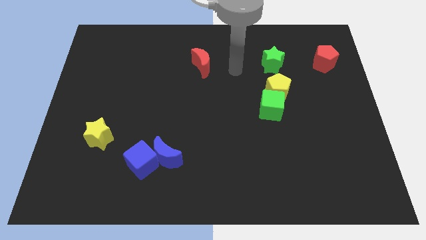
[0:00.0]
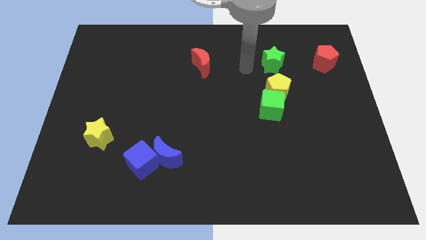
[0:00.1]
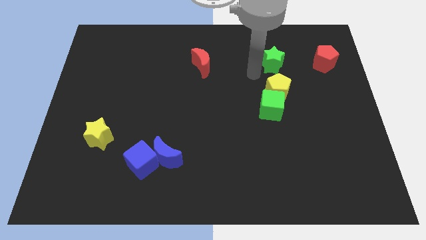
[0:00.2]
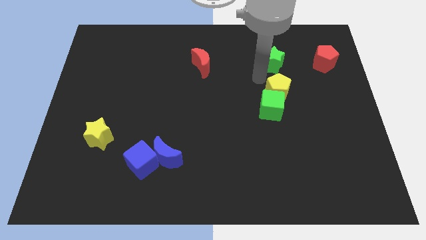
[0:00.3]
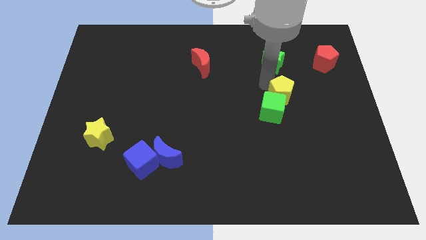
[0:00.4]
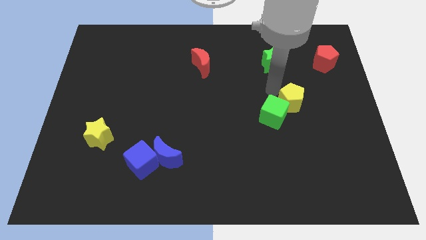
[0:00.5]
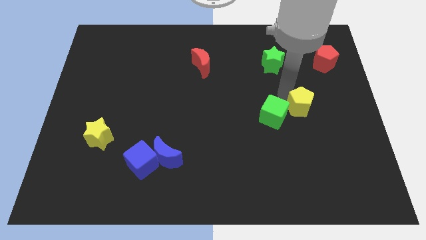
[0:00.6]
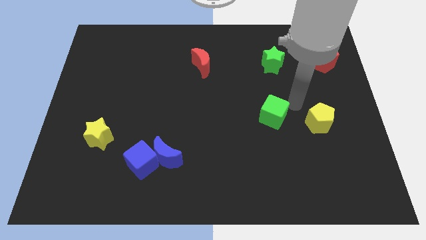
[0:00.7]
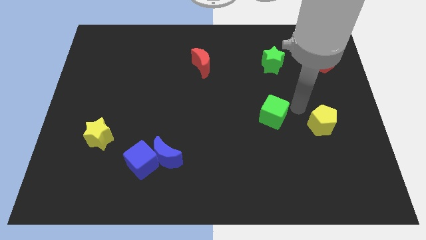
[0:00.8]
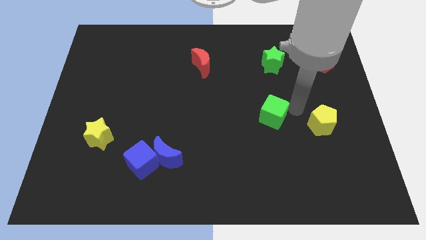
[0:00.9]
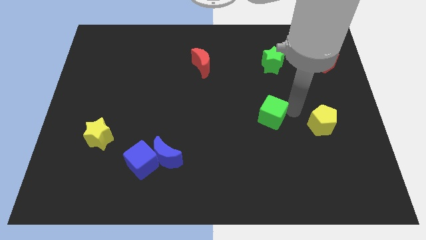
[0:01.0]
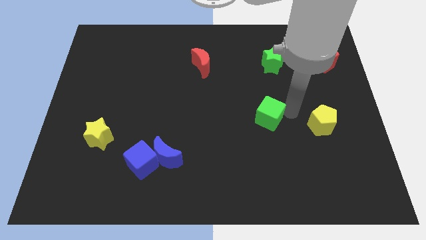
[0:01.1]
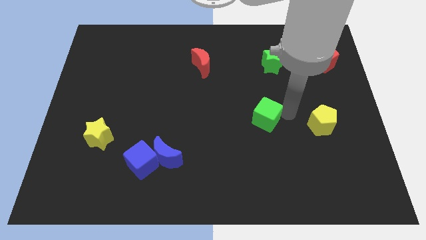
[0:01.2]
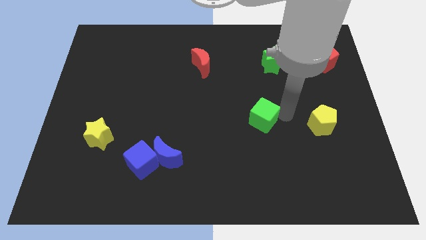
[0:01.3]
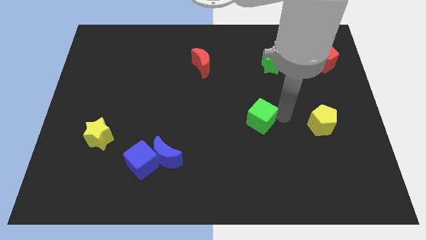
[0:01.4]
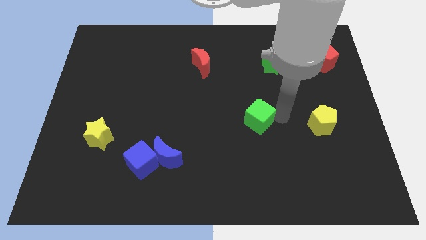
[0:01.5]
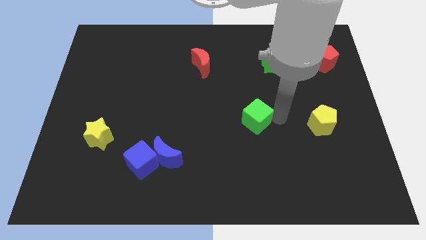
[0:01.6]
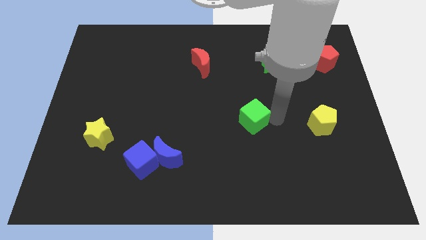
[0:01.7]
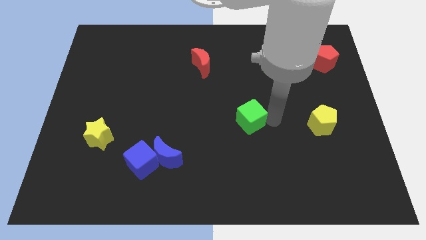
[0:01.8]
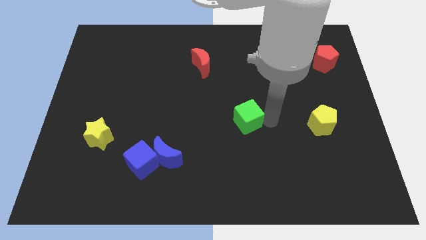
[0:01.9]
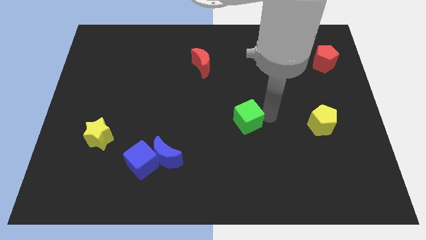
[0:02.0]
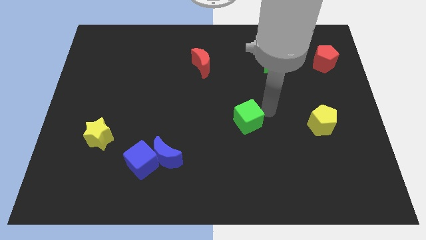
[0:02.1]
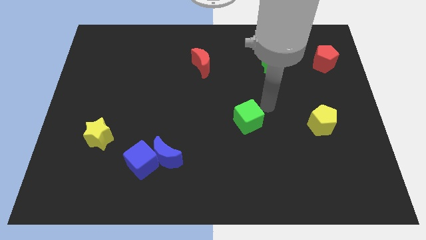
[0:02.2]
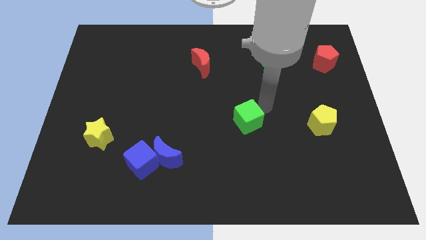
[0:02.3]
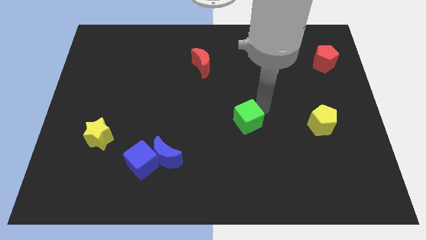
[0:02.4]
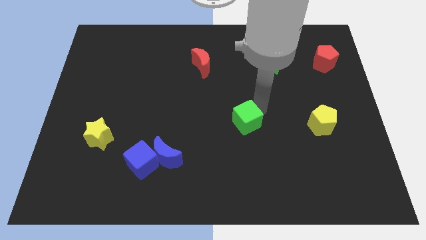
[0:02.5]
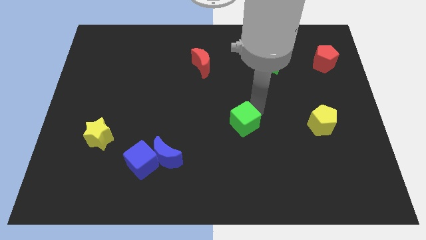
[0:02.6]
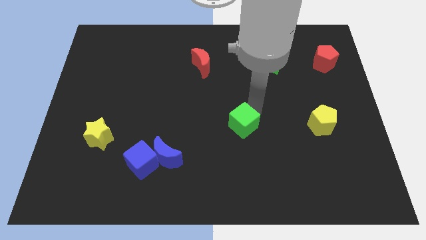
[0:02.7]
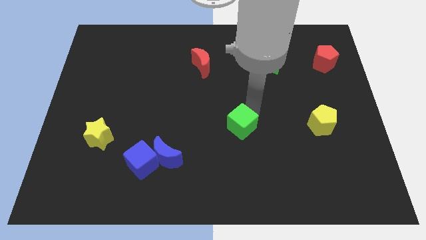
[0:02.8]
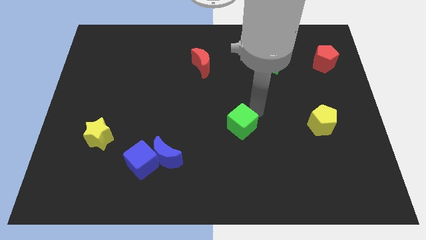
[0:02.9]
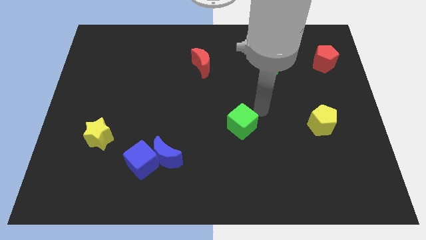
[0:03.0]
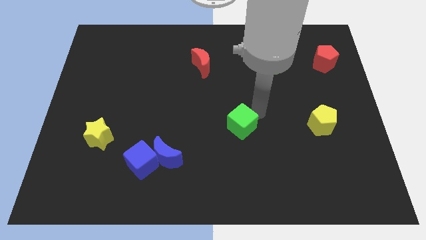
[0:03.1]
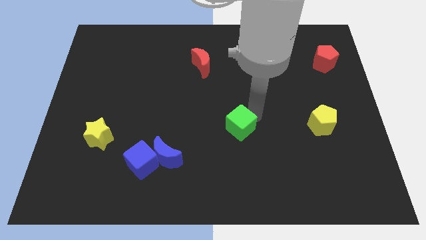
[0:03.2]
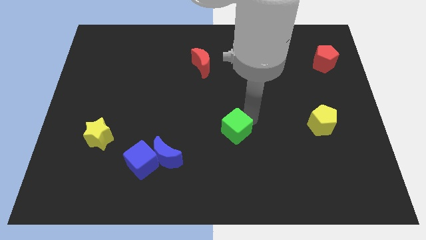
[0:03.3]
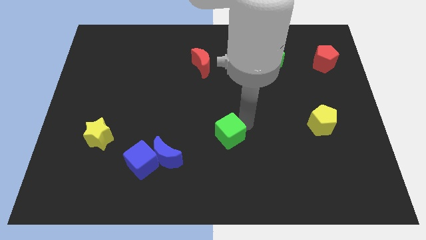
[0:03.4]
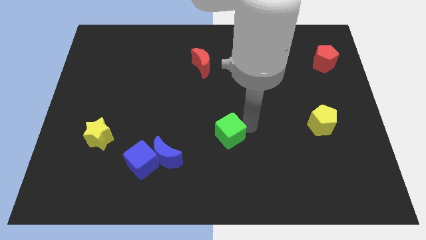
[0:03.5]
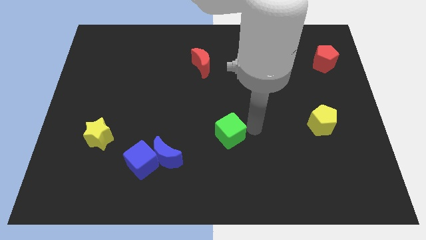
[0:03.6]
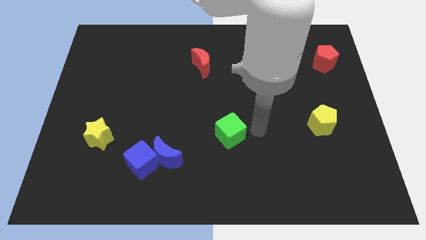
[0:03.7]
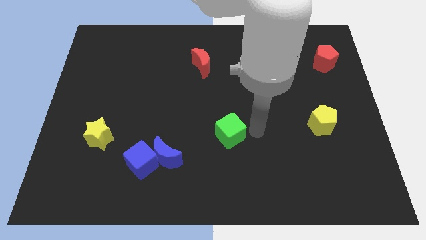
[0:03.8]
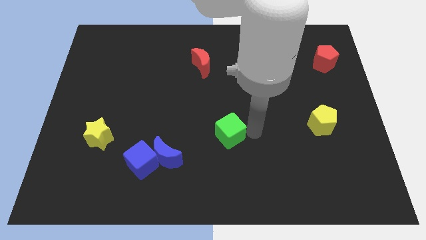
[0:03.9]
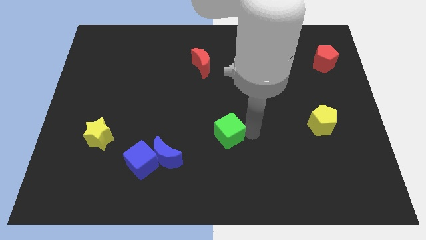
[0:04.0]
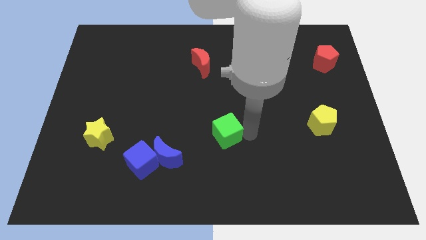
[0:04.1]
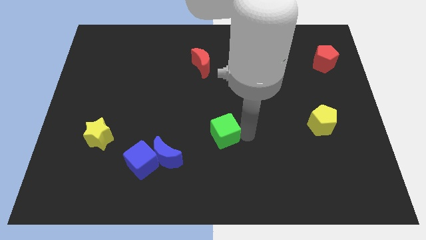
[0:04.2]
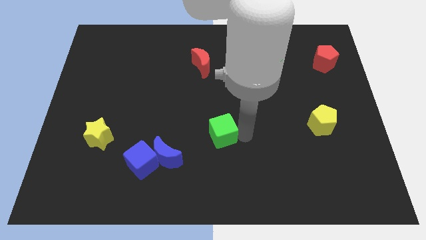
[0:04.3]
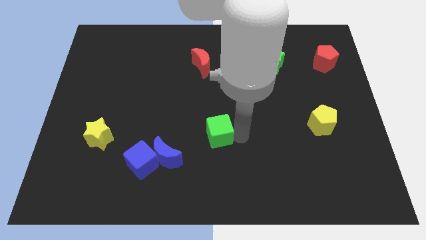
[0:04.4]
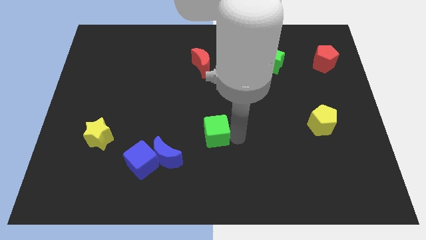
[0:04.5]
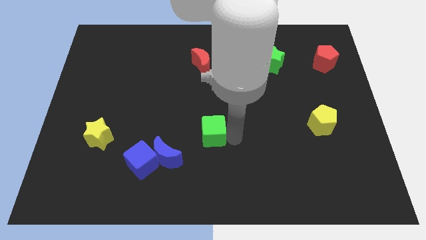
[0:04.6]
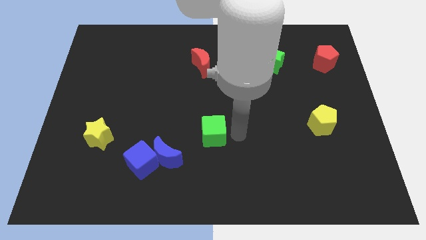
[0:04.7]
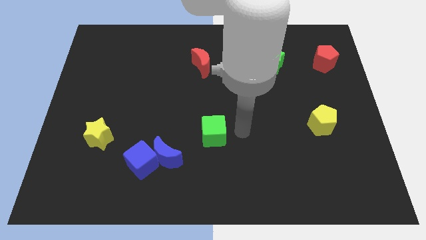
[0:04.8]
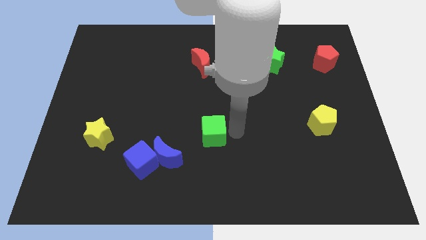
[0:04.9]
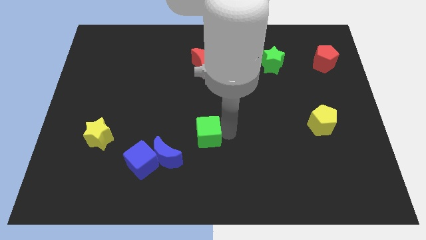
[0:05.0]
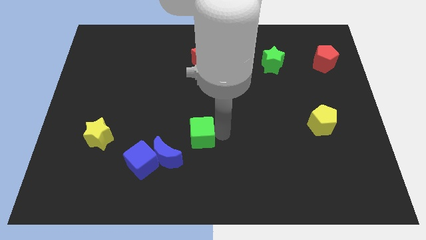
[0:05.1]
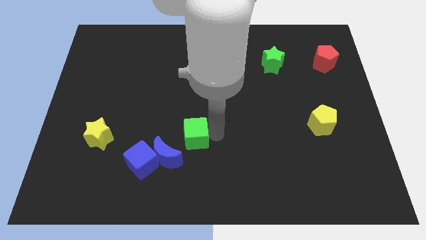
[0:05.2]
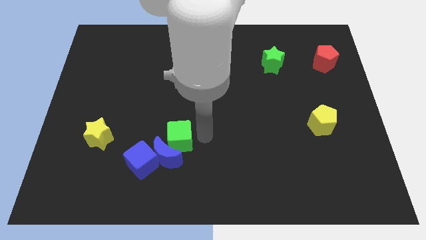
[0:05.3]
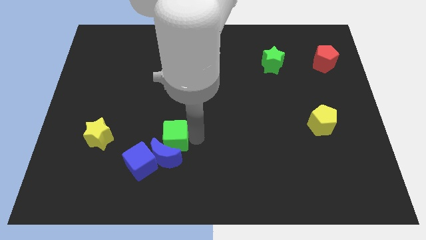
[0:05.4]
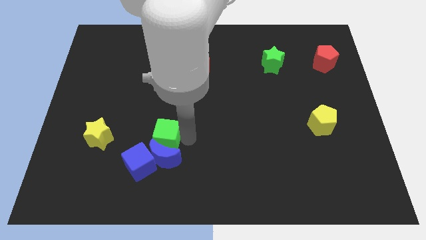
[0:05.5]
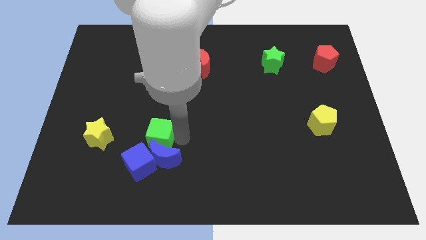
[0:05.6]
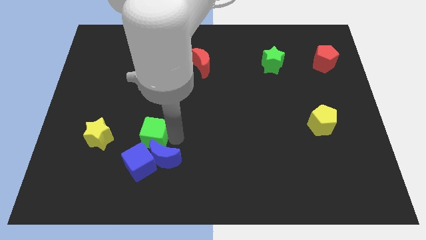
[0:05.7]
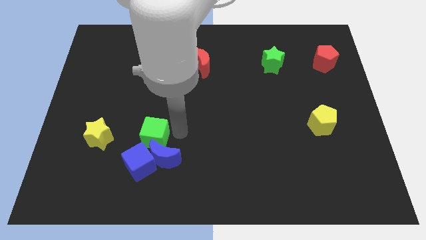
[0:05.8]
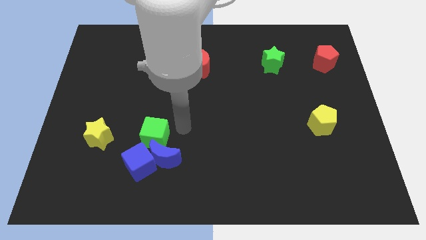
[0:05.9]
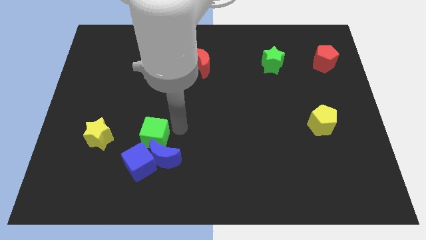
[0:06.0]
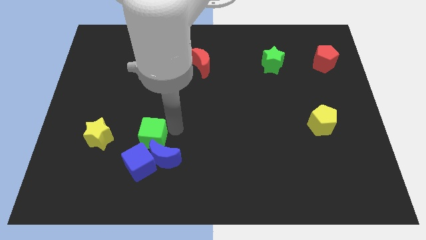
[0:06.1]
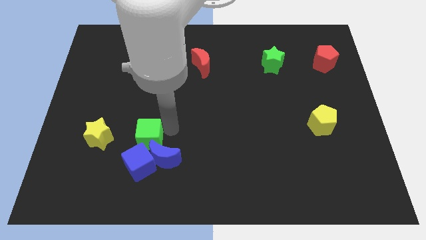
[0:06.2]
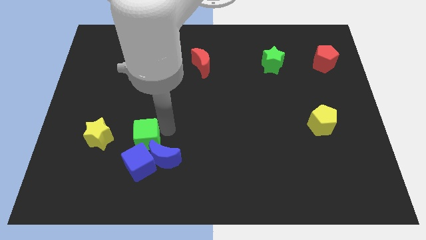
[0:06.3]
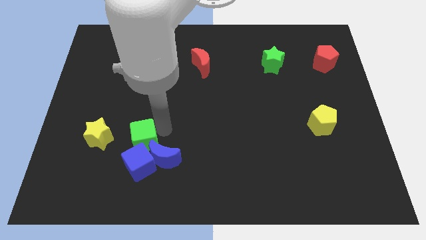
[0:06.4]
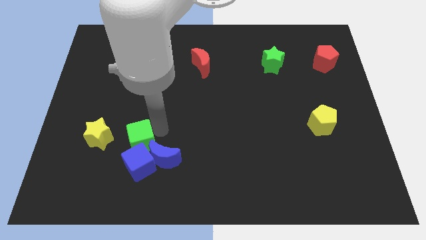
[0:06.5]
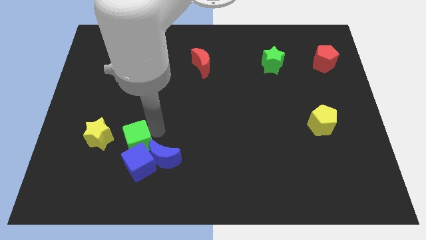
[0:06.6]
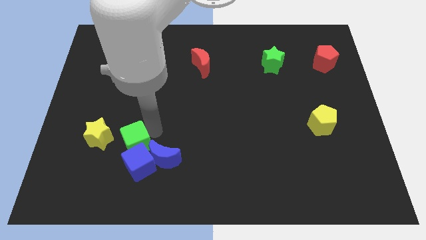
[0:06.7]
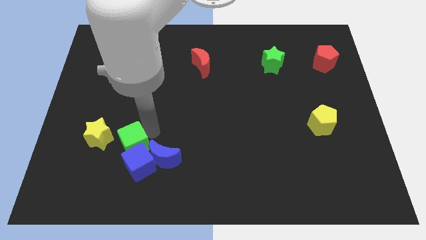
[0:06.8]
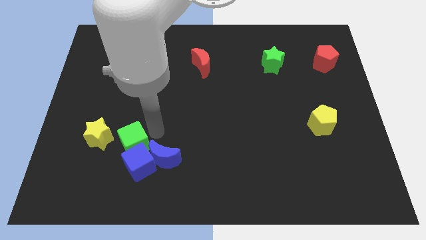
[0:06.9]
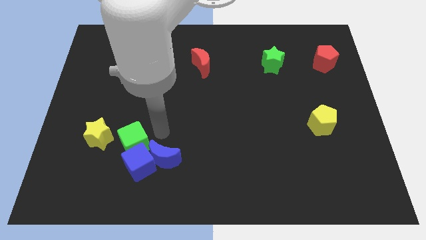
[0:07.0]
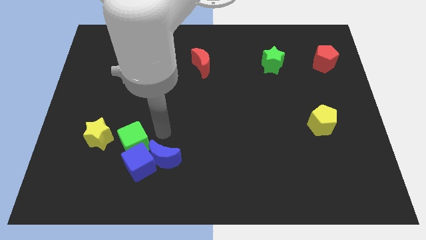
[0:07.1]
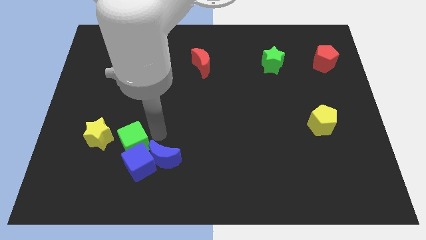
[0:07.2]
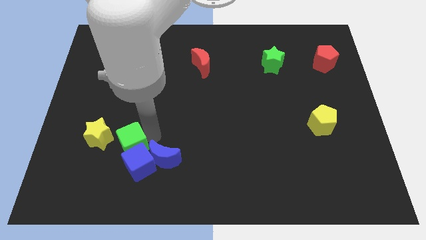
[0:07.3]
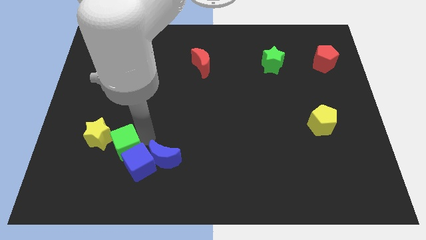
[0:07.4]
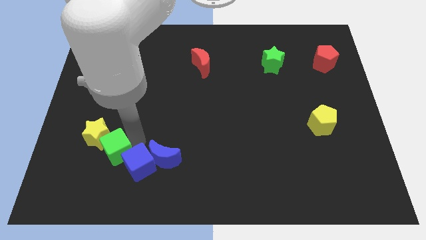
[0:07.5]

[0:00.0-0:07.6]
slide the green cube to the left of the blue cube
